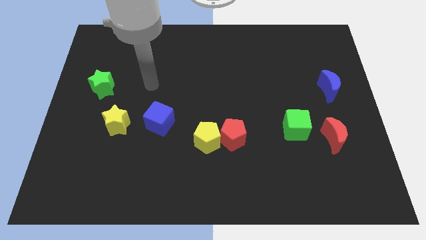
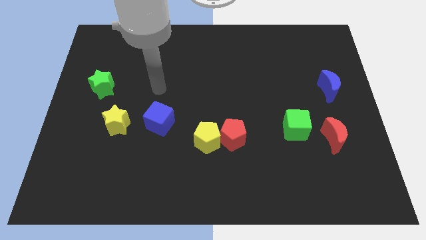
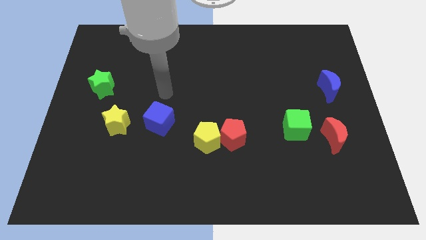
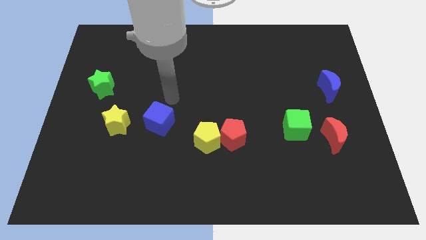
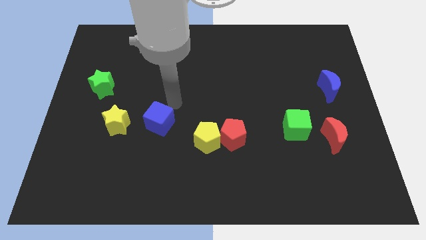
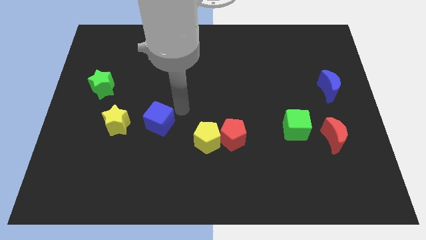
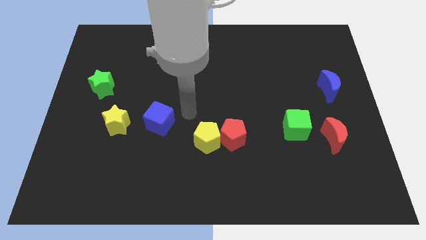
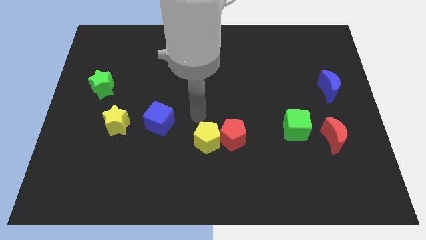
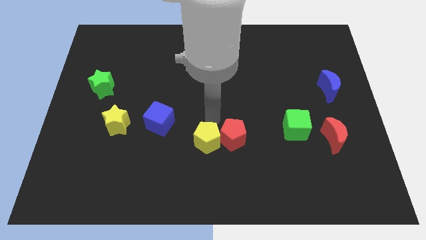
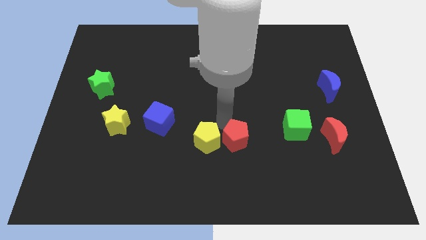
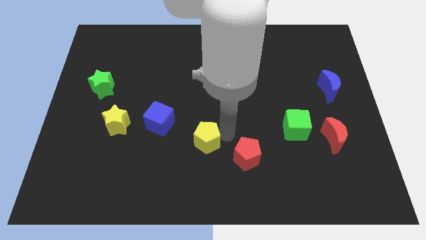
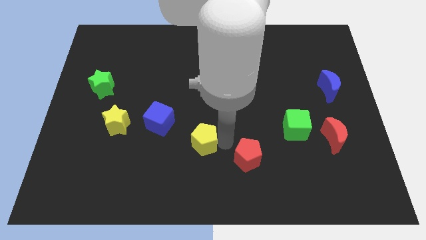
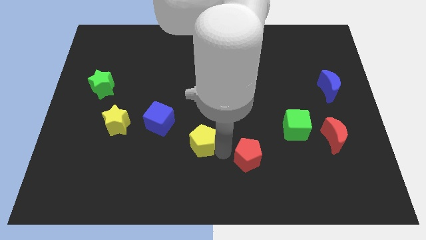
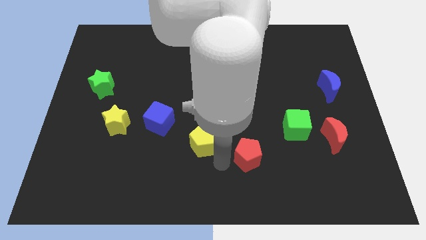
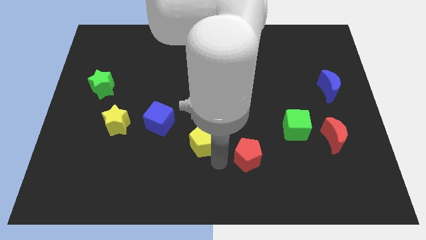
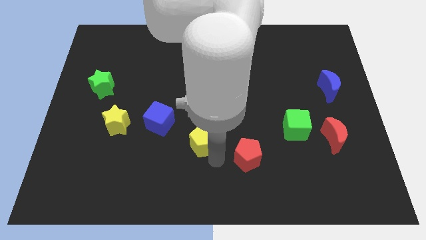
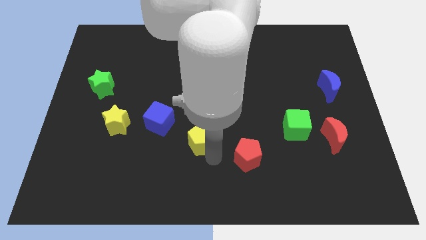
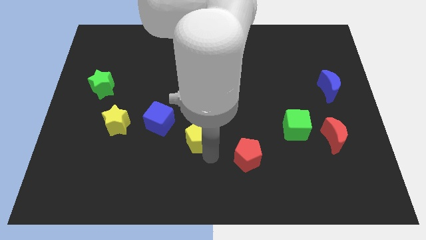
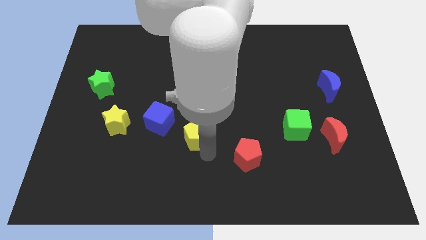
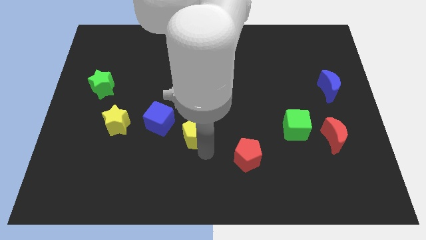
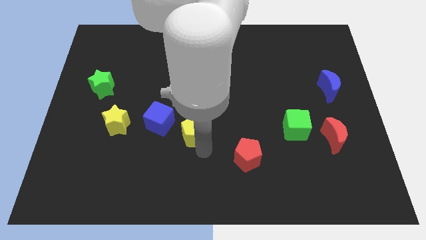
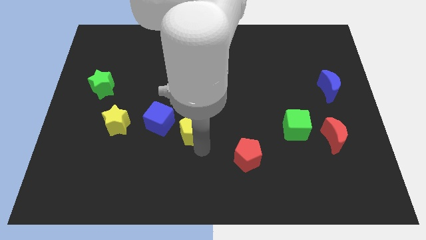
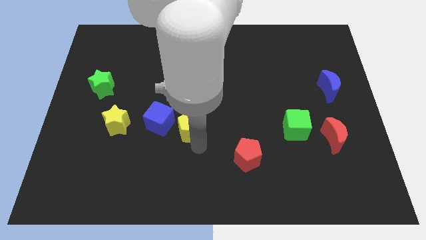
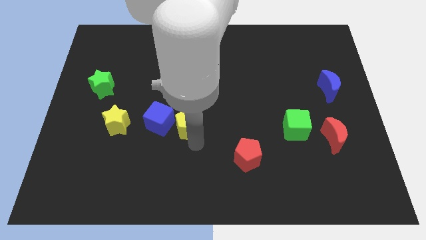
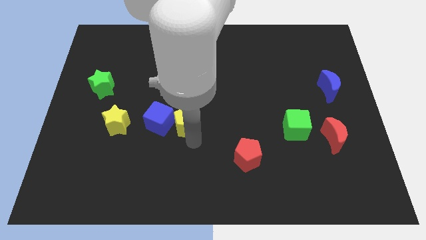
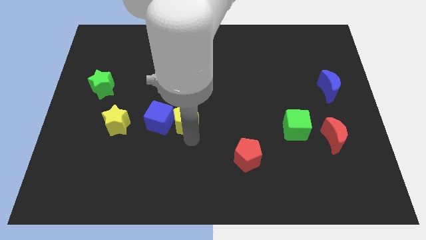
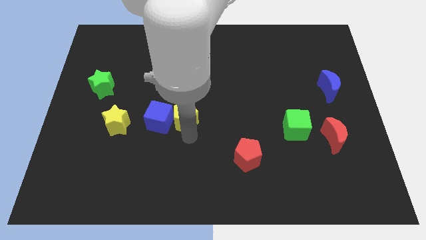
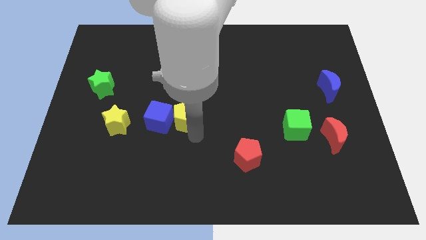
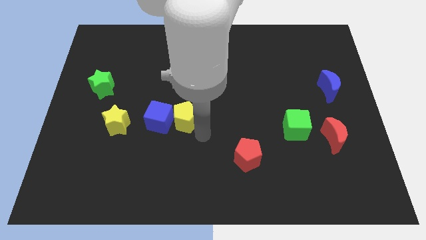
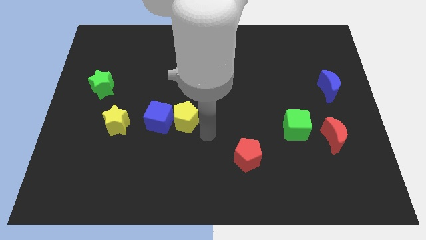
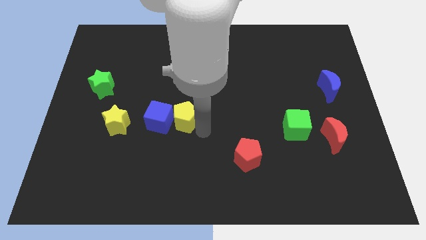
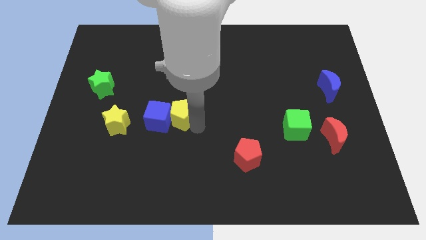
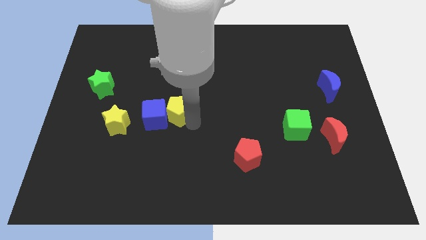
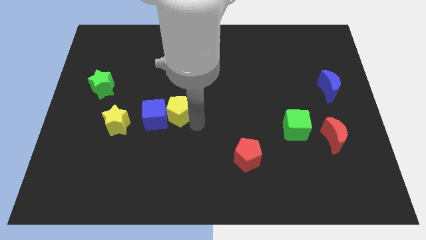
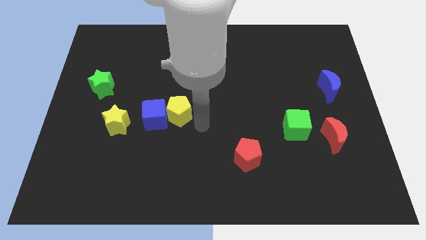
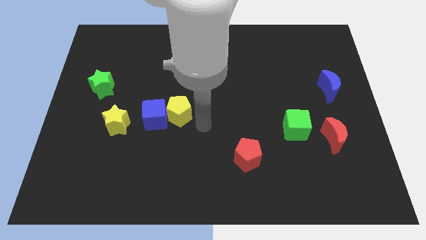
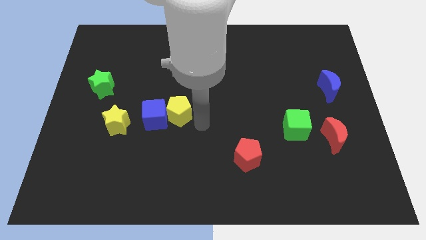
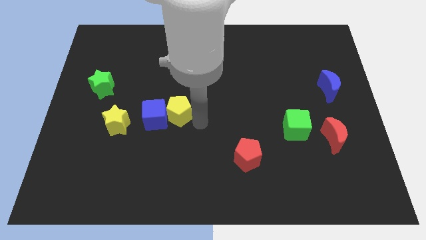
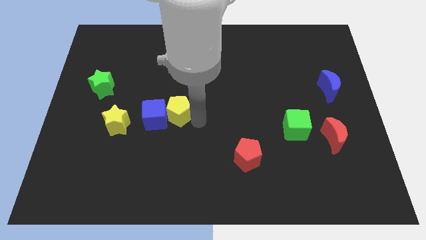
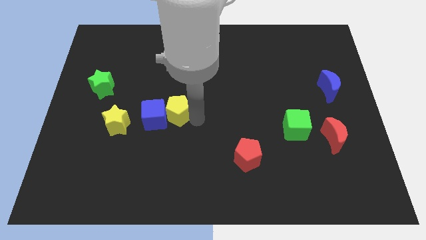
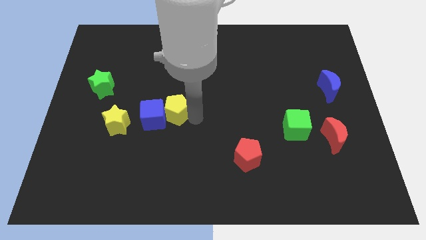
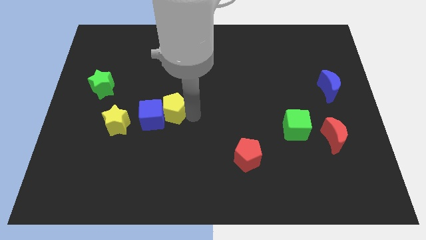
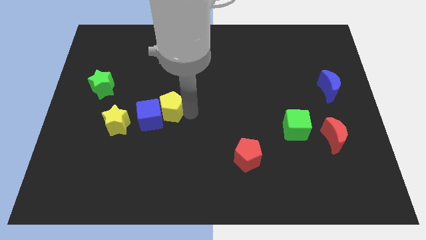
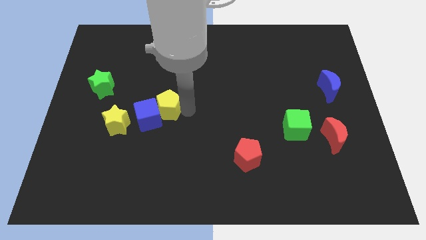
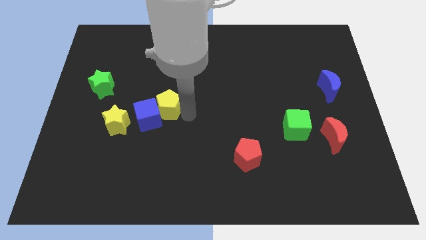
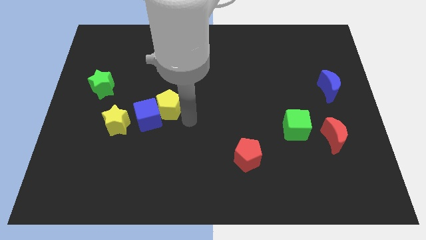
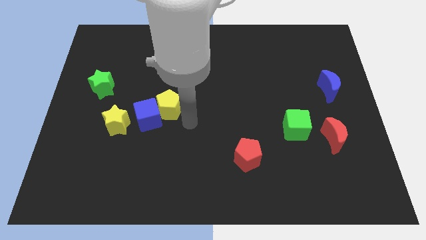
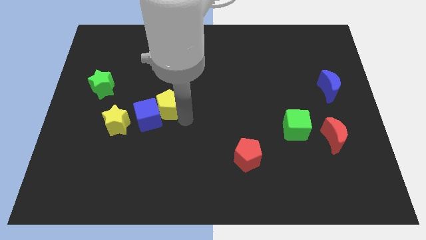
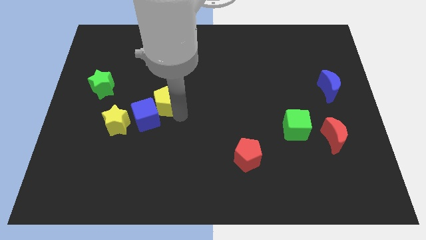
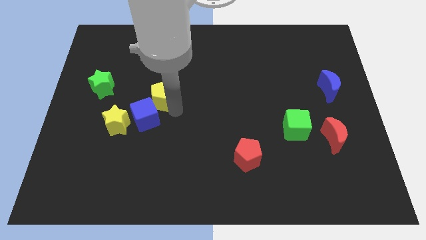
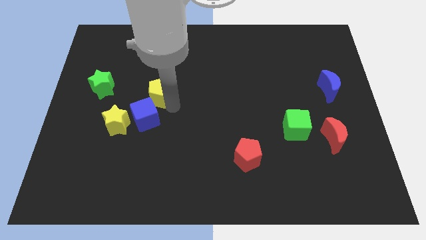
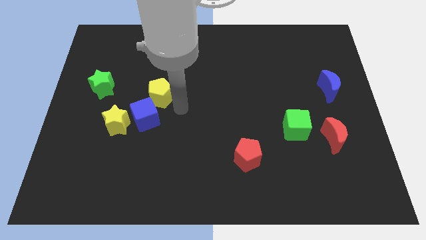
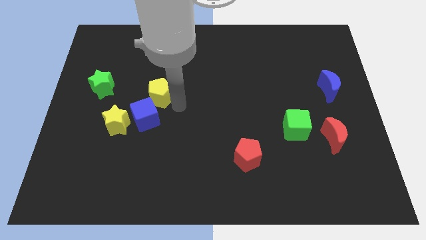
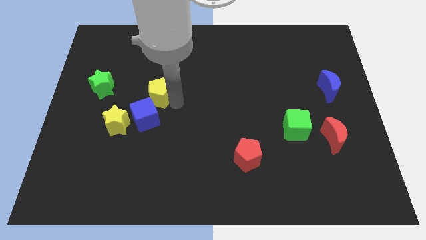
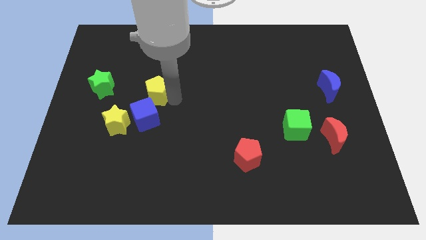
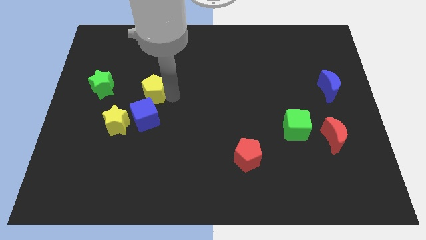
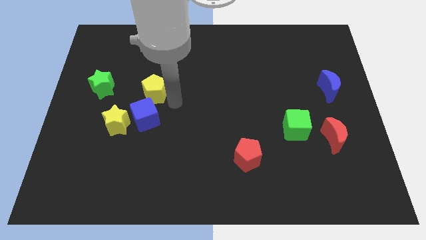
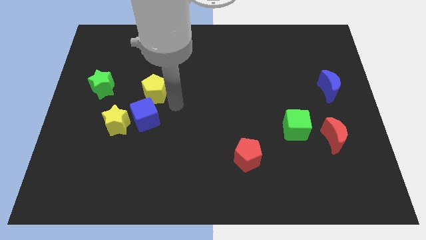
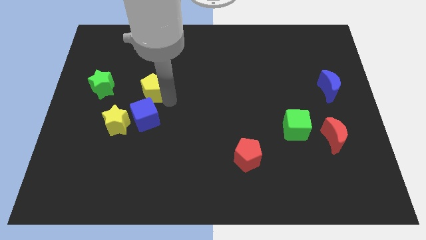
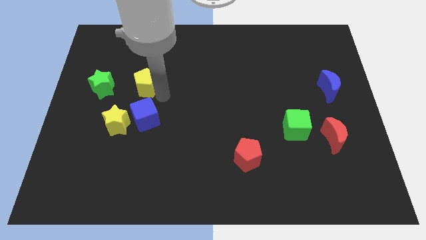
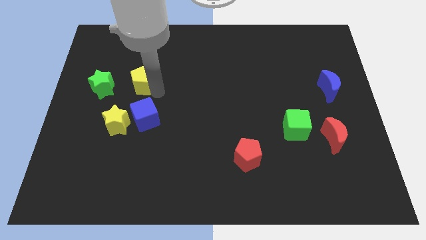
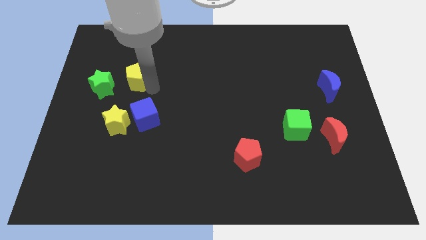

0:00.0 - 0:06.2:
push the yellow pentagon to the top right side of the green star

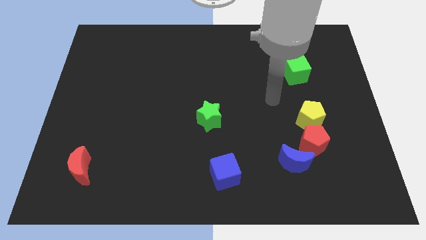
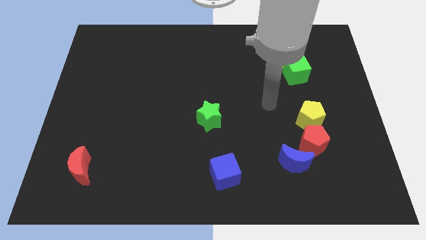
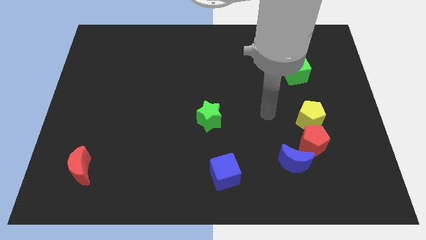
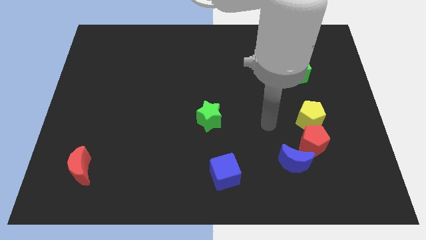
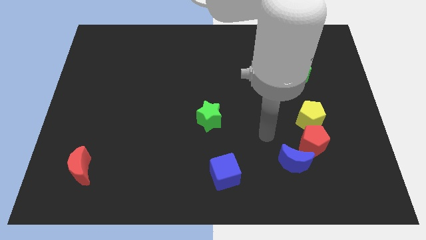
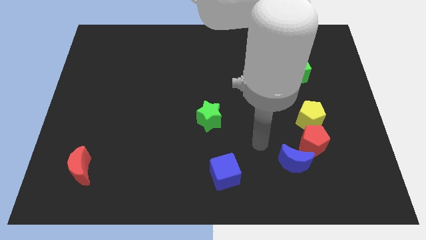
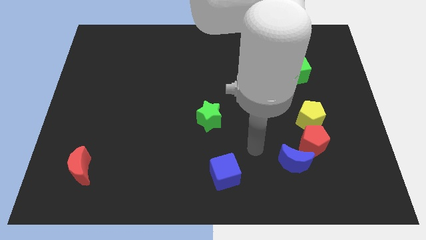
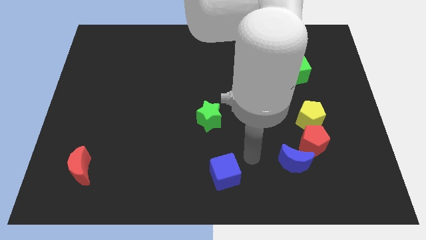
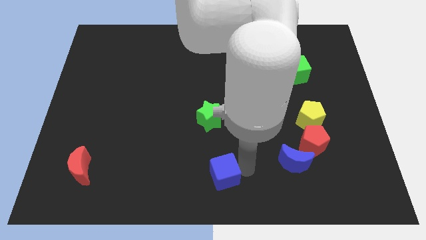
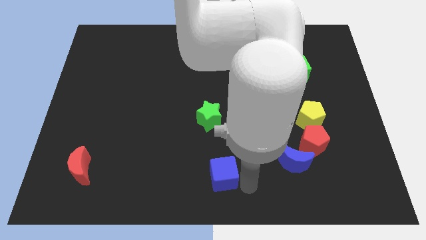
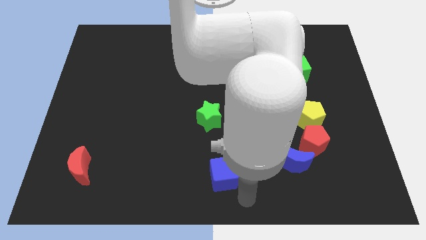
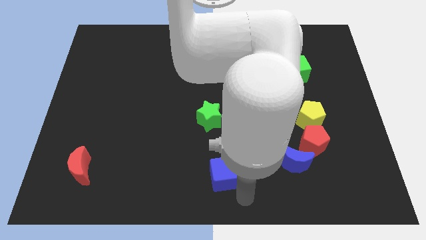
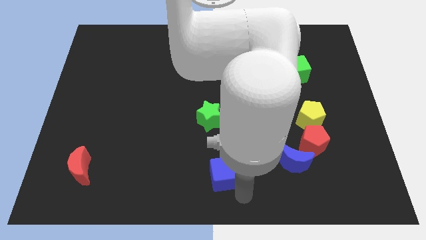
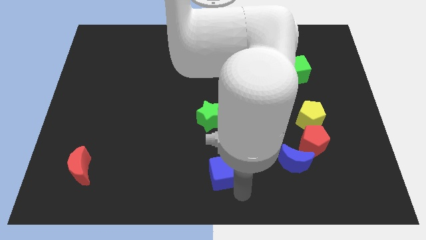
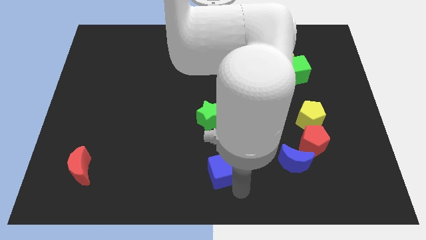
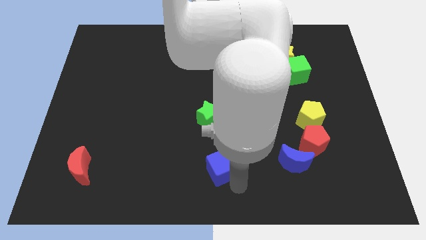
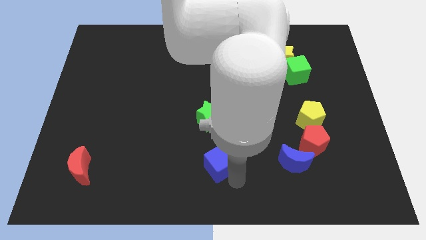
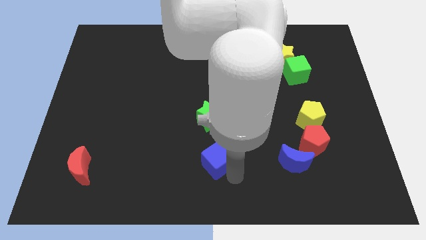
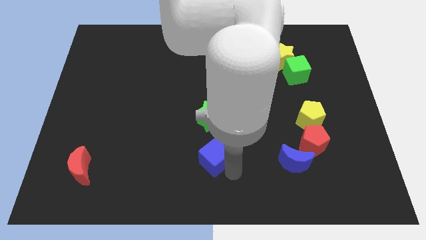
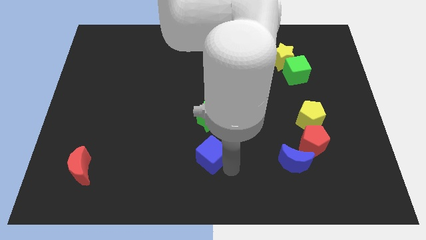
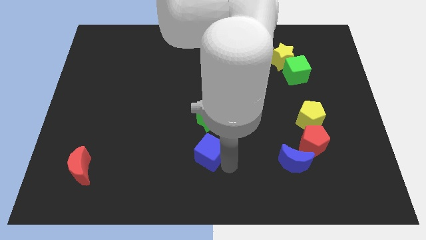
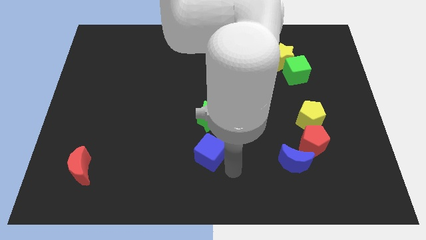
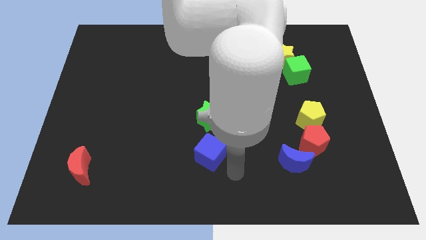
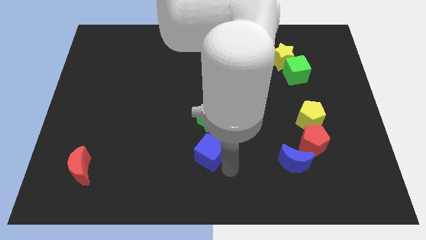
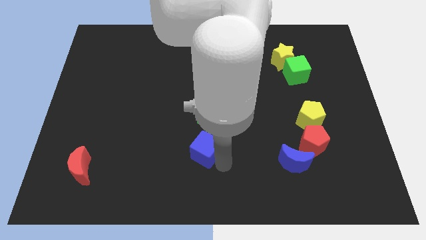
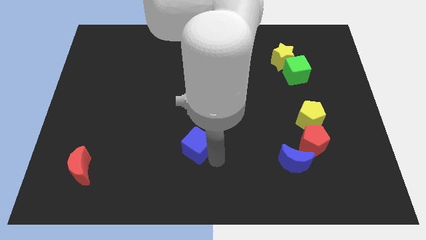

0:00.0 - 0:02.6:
move the blue cube to the bottom left side of the green star
